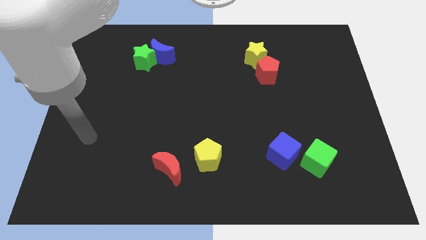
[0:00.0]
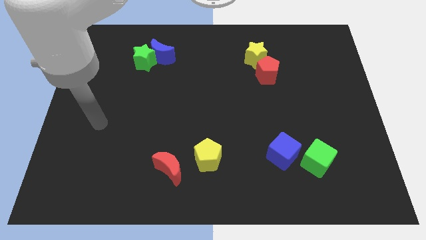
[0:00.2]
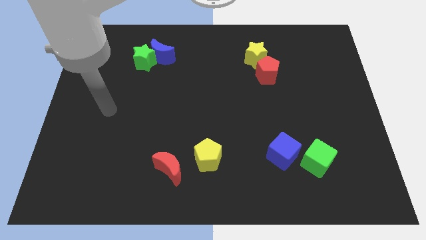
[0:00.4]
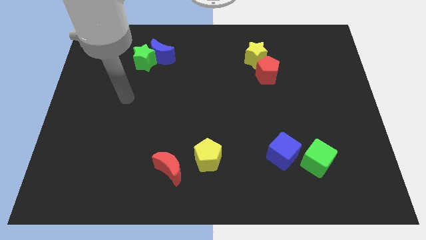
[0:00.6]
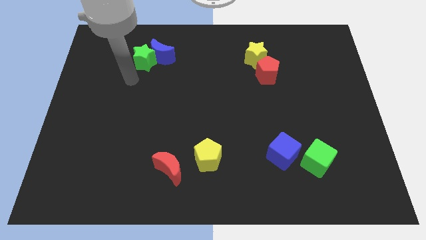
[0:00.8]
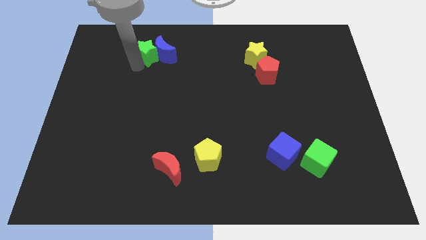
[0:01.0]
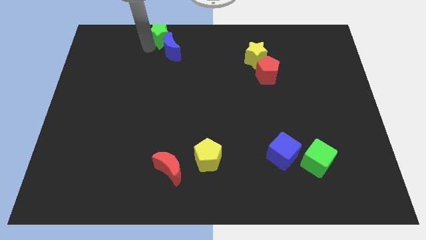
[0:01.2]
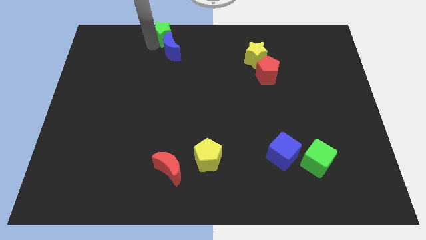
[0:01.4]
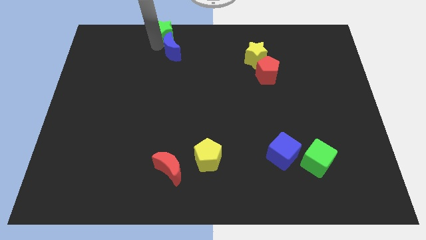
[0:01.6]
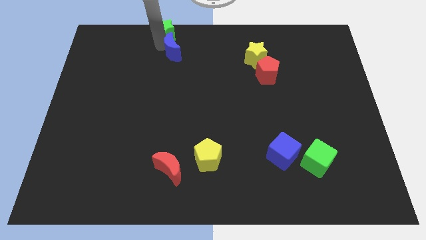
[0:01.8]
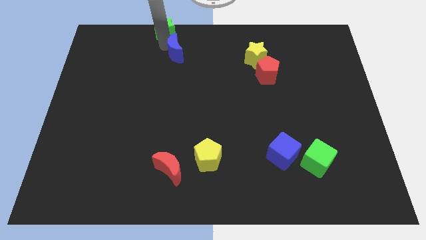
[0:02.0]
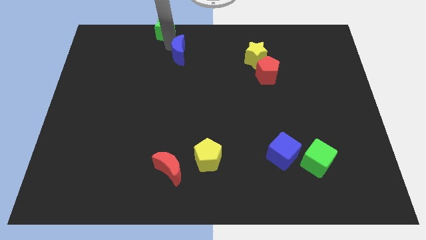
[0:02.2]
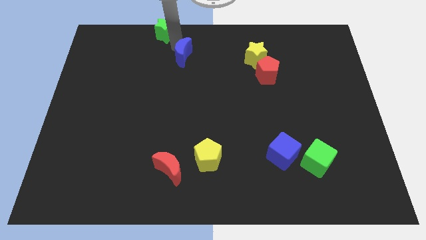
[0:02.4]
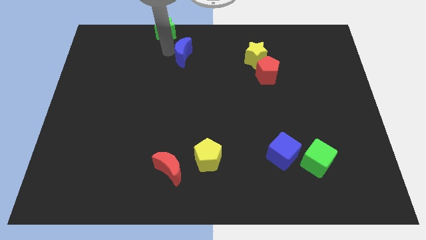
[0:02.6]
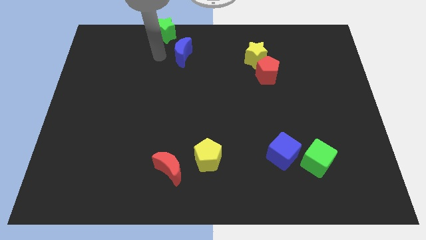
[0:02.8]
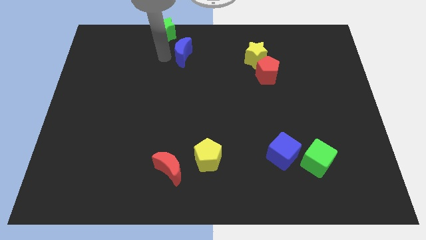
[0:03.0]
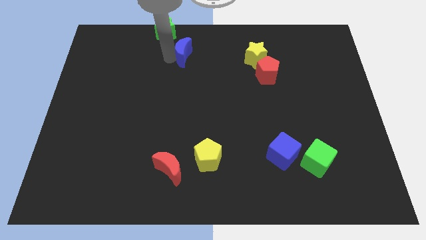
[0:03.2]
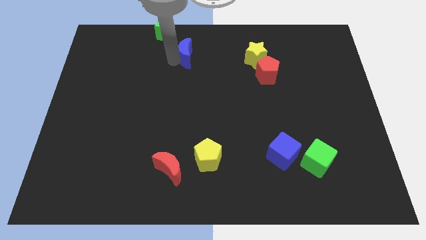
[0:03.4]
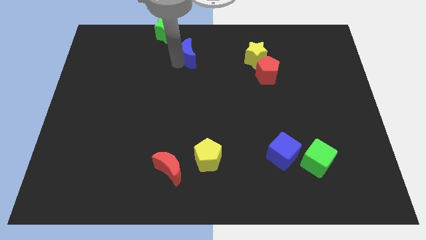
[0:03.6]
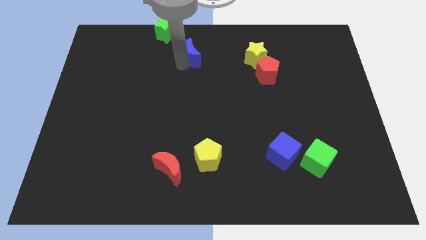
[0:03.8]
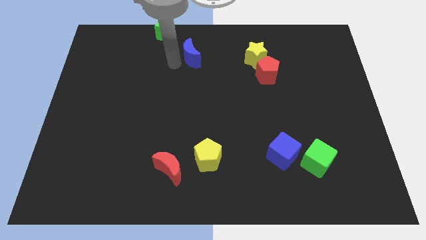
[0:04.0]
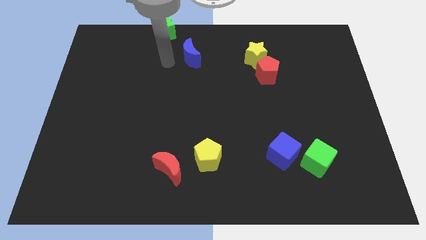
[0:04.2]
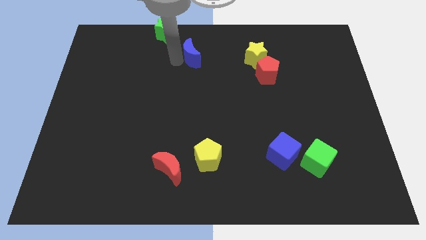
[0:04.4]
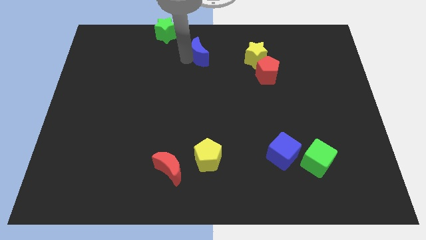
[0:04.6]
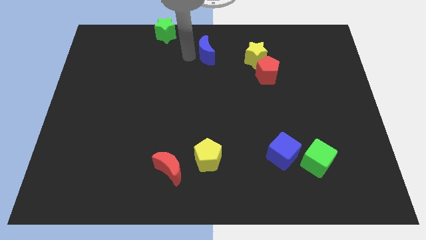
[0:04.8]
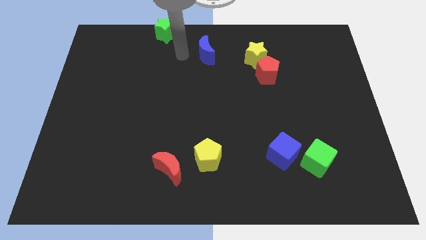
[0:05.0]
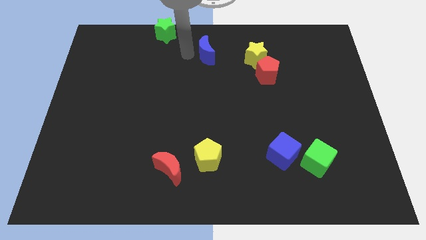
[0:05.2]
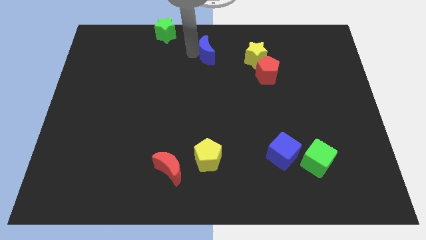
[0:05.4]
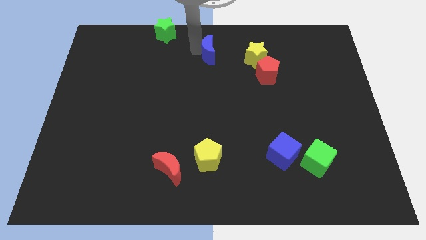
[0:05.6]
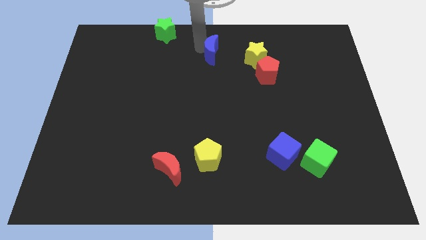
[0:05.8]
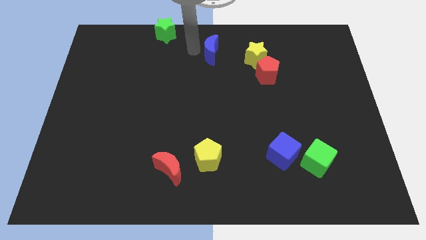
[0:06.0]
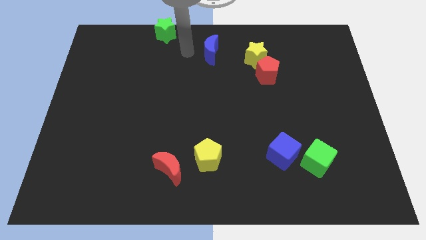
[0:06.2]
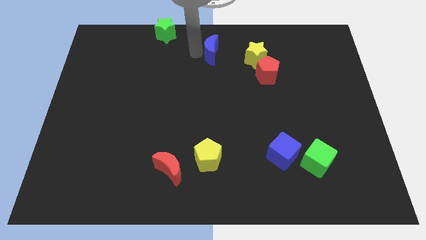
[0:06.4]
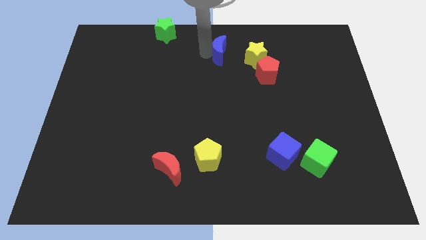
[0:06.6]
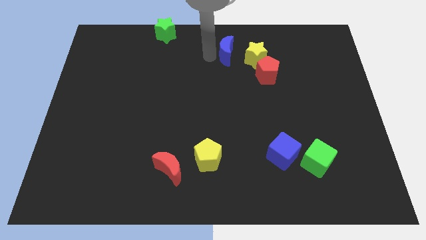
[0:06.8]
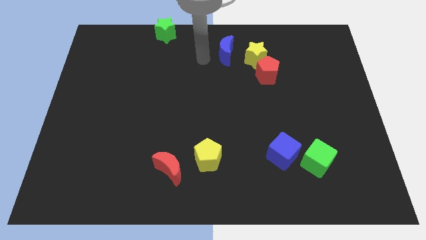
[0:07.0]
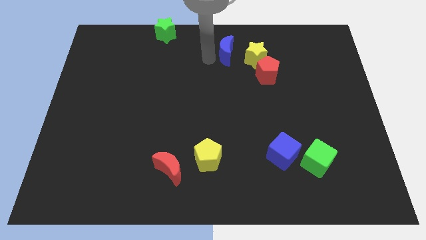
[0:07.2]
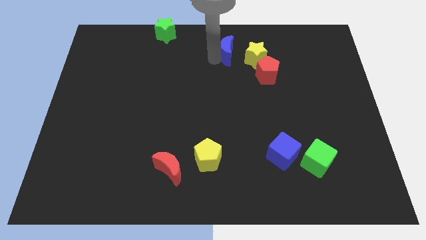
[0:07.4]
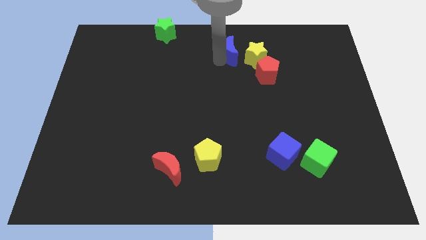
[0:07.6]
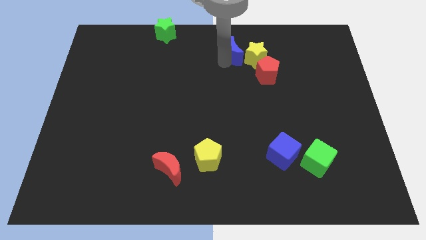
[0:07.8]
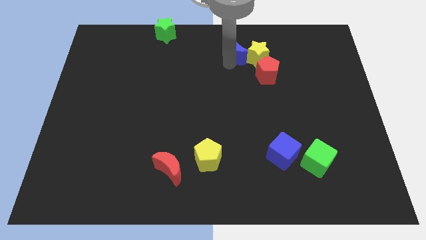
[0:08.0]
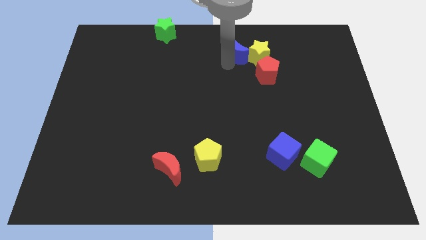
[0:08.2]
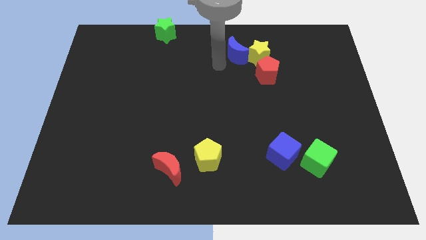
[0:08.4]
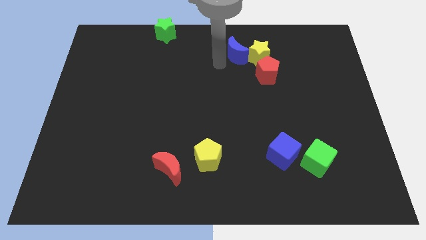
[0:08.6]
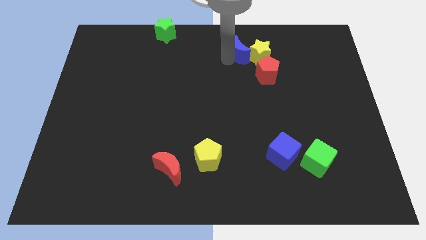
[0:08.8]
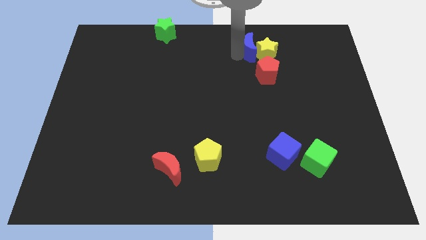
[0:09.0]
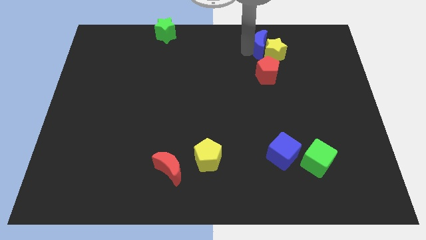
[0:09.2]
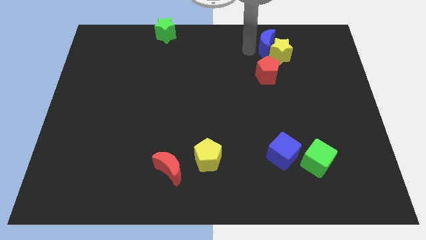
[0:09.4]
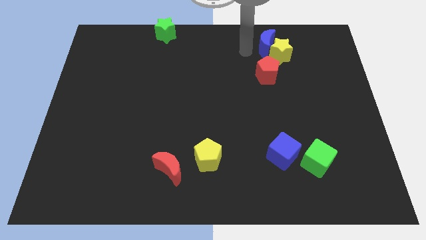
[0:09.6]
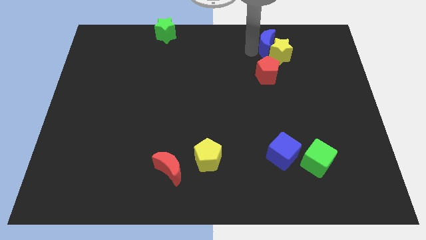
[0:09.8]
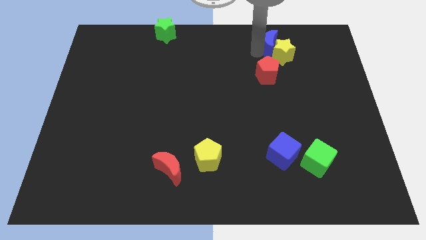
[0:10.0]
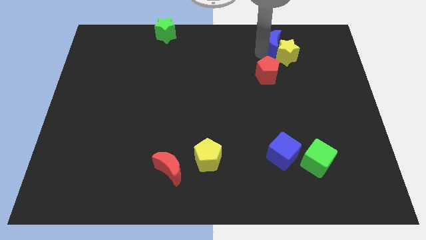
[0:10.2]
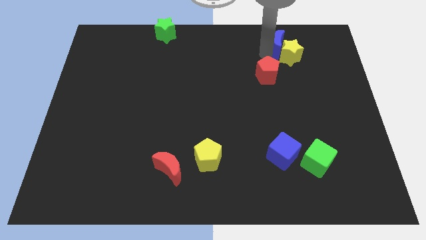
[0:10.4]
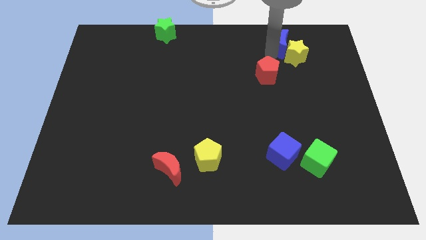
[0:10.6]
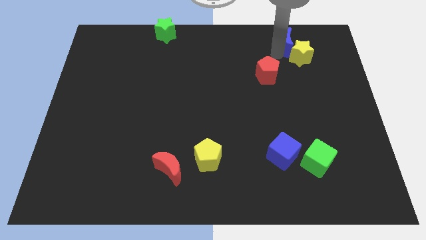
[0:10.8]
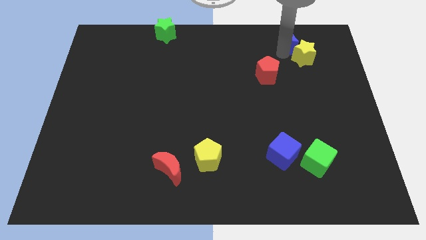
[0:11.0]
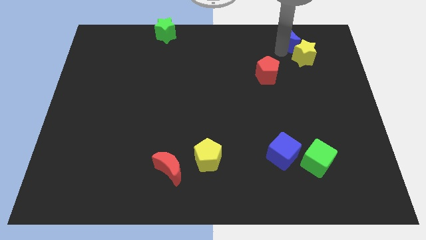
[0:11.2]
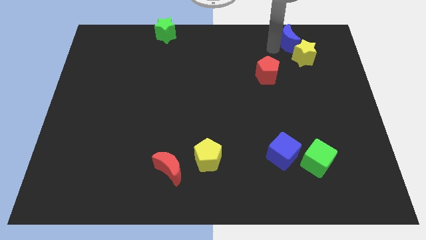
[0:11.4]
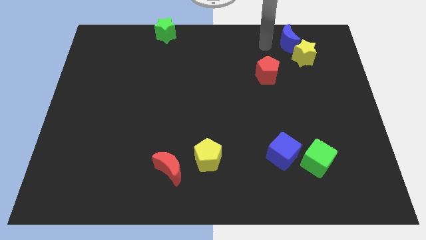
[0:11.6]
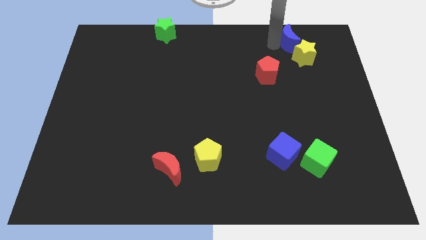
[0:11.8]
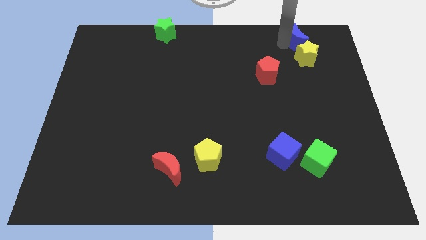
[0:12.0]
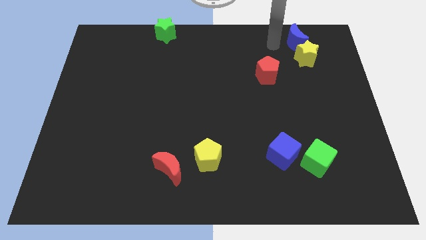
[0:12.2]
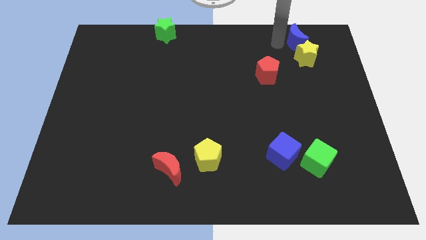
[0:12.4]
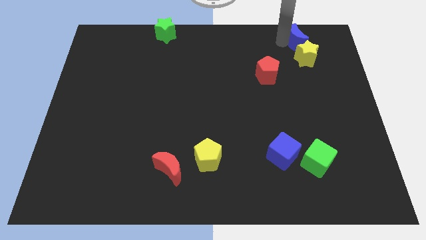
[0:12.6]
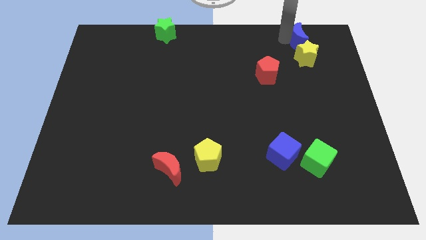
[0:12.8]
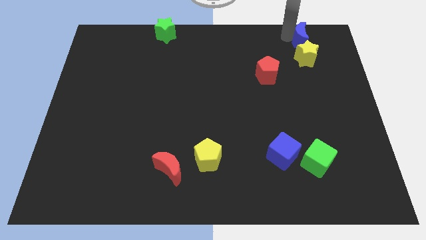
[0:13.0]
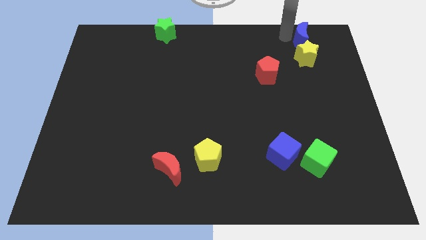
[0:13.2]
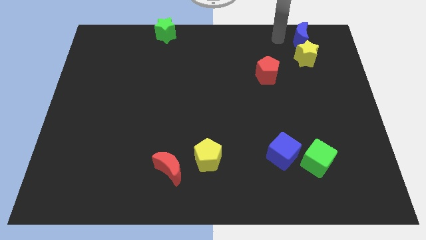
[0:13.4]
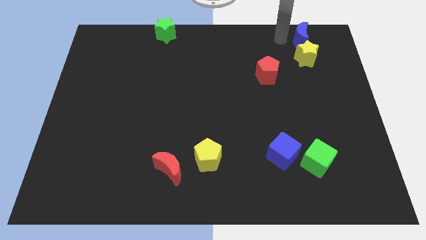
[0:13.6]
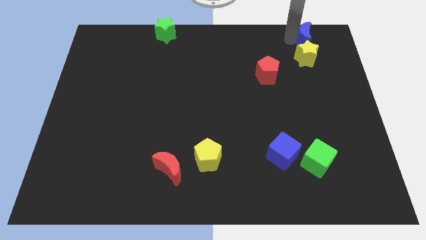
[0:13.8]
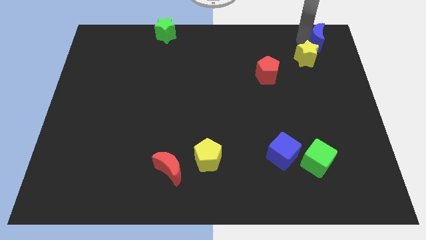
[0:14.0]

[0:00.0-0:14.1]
slide the blue moon to the top right of the board
